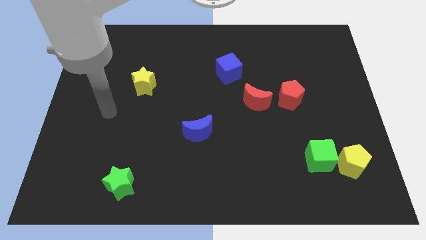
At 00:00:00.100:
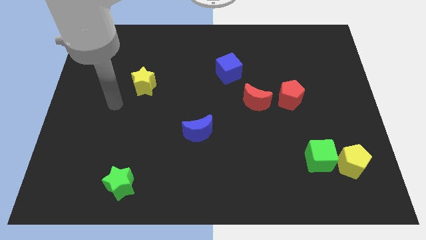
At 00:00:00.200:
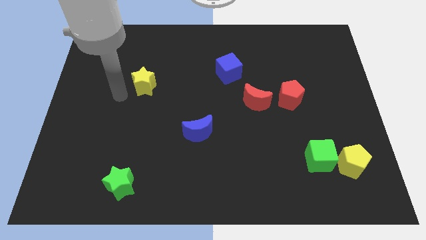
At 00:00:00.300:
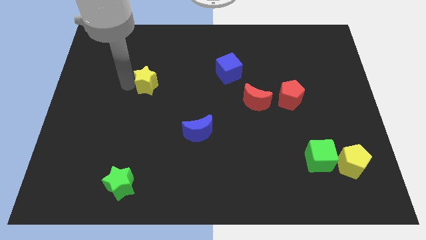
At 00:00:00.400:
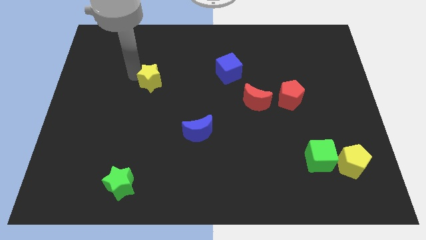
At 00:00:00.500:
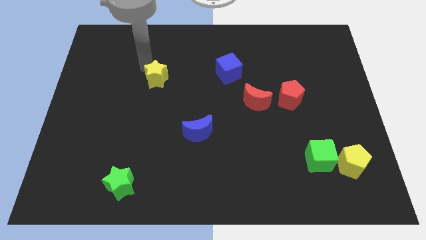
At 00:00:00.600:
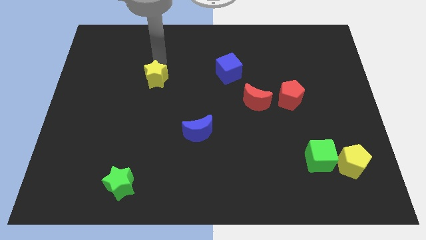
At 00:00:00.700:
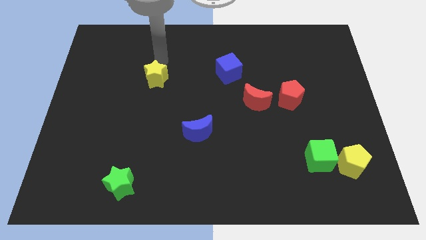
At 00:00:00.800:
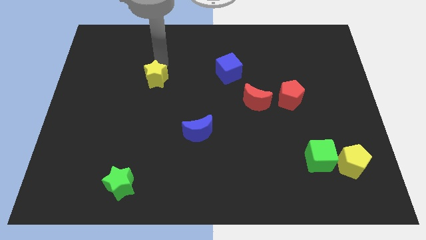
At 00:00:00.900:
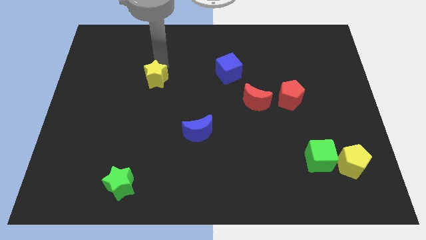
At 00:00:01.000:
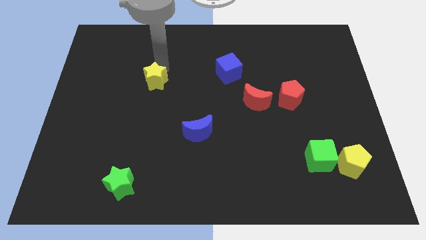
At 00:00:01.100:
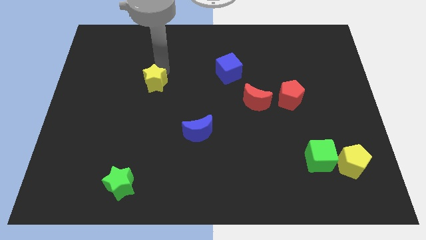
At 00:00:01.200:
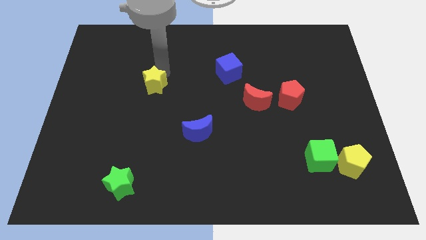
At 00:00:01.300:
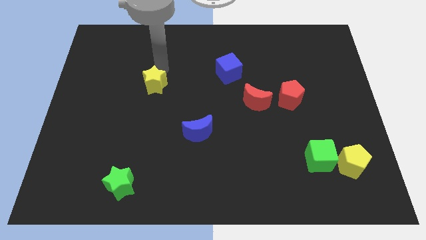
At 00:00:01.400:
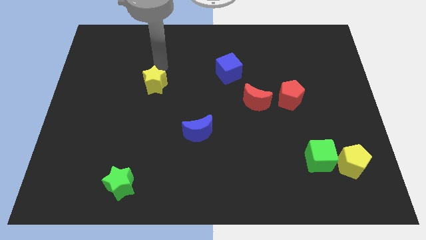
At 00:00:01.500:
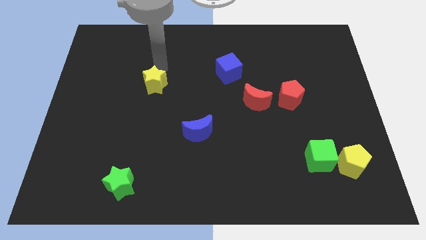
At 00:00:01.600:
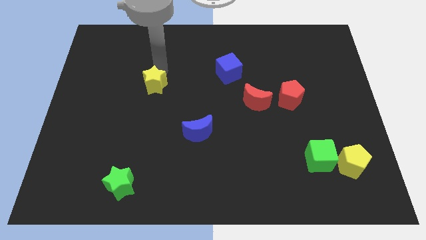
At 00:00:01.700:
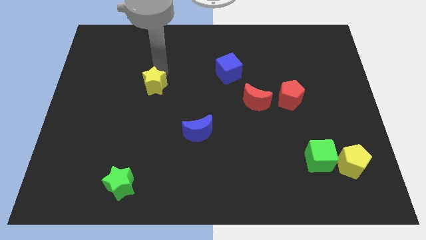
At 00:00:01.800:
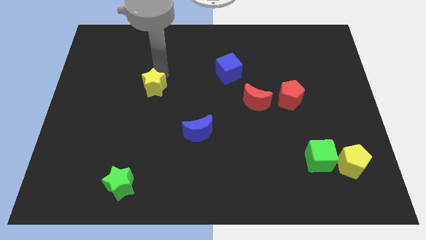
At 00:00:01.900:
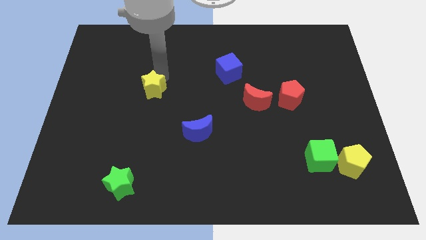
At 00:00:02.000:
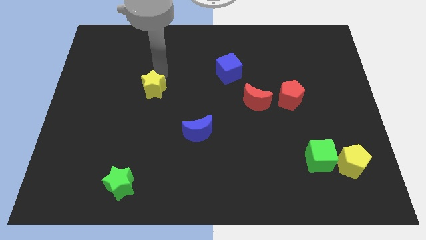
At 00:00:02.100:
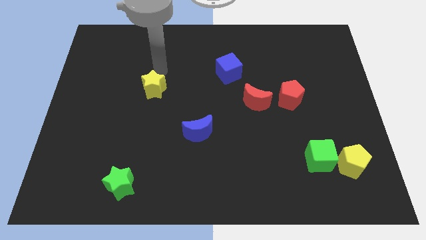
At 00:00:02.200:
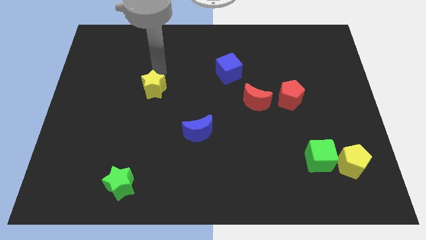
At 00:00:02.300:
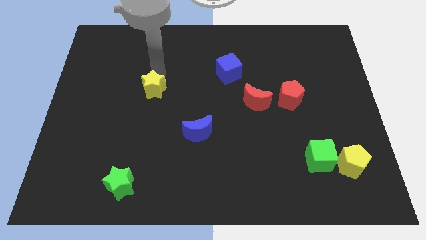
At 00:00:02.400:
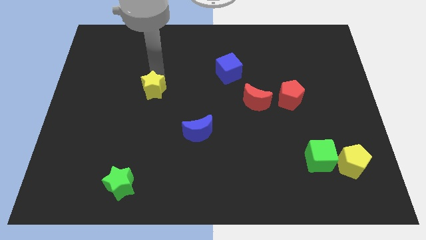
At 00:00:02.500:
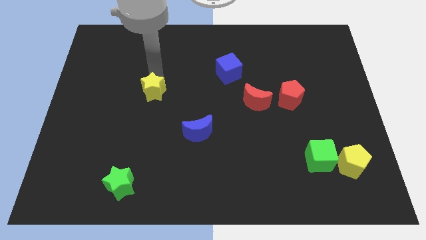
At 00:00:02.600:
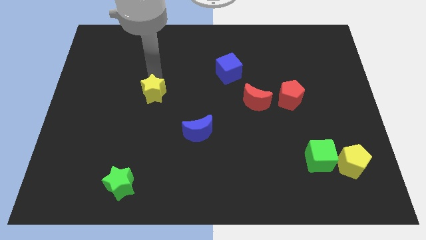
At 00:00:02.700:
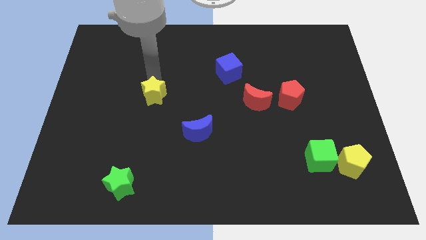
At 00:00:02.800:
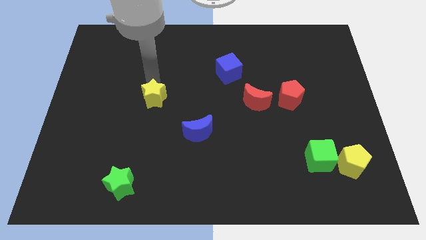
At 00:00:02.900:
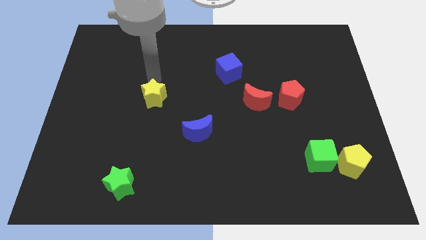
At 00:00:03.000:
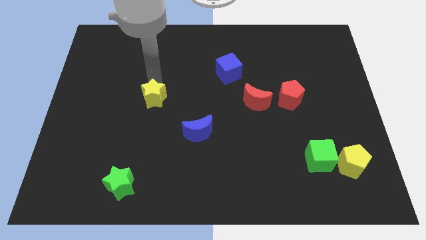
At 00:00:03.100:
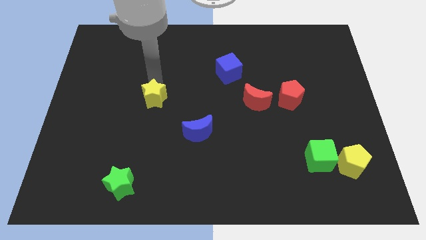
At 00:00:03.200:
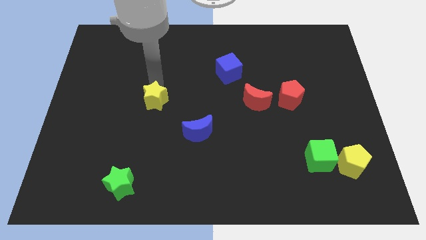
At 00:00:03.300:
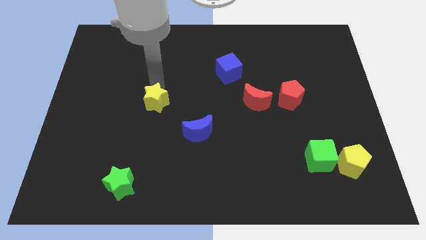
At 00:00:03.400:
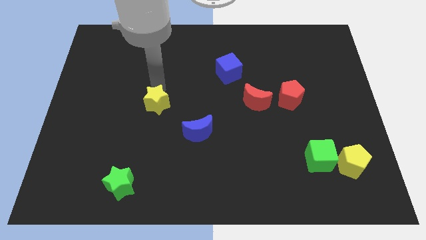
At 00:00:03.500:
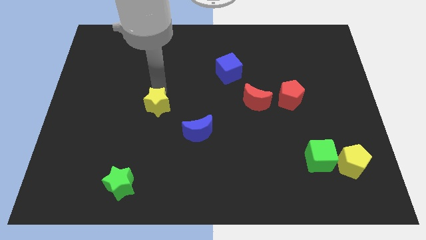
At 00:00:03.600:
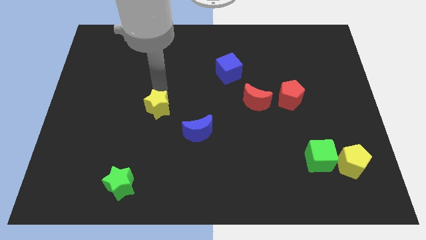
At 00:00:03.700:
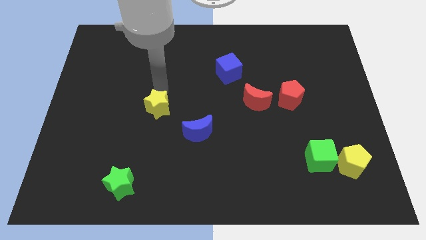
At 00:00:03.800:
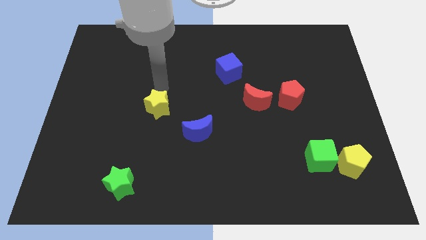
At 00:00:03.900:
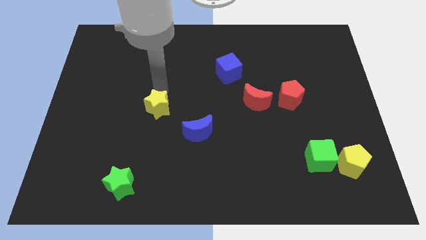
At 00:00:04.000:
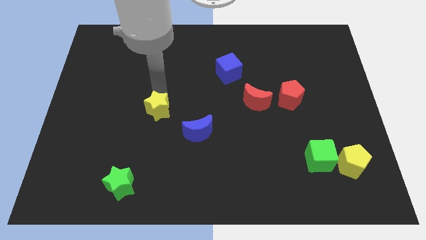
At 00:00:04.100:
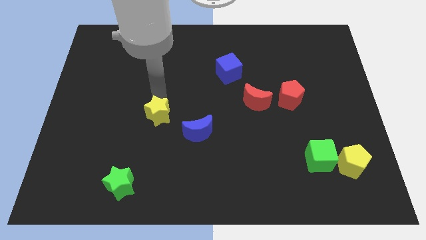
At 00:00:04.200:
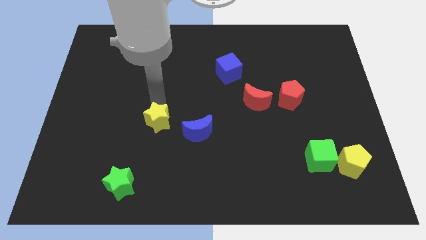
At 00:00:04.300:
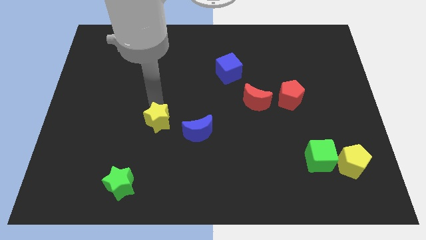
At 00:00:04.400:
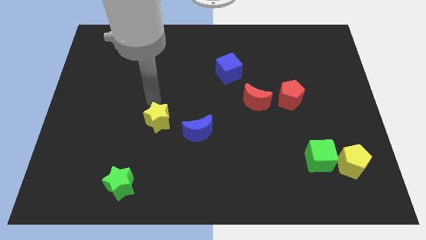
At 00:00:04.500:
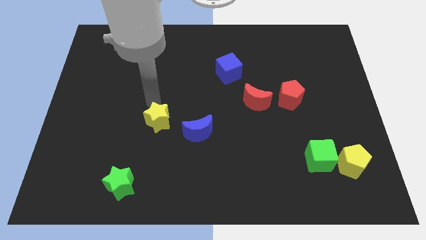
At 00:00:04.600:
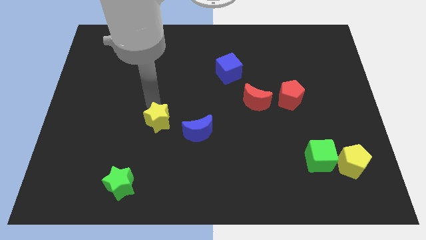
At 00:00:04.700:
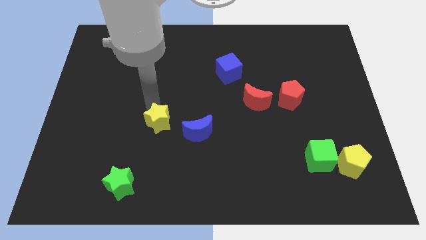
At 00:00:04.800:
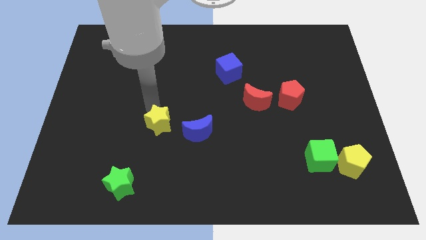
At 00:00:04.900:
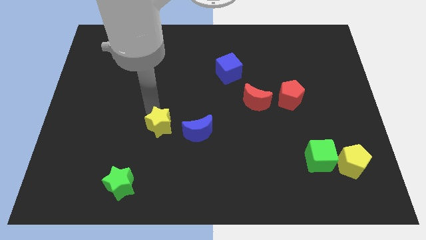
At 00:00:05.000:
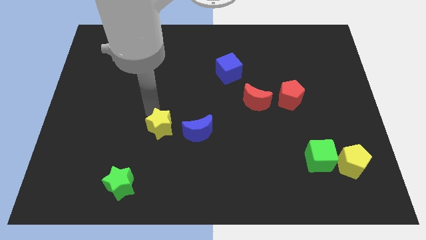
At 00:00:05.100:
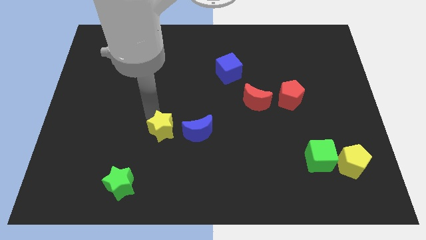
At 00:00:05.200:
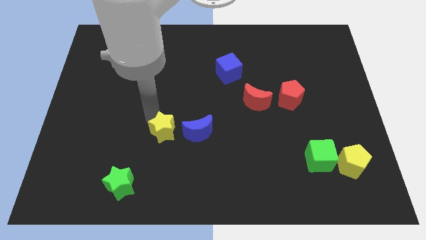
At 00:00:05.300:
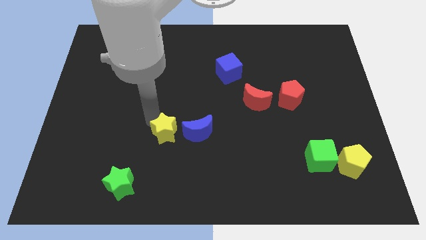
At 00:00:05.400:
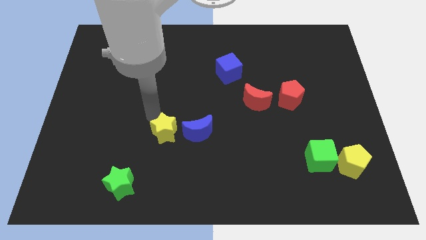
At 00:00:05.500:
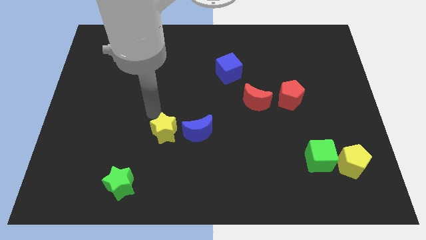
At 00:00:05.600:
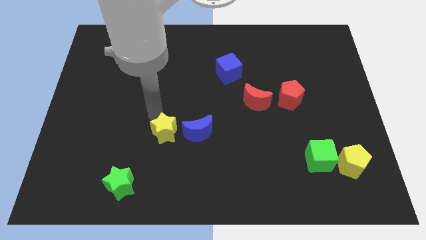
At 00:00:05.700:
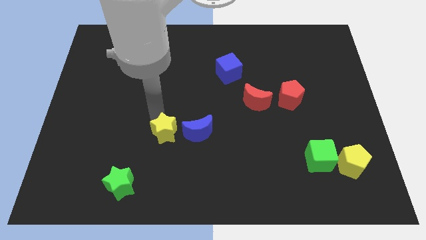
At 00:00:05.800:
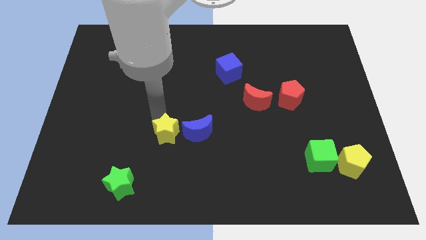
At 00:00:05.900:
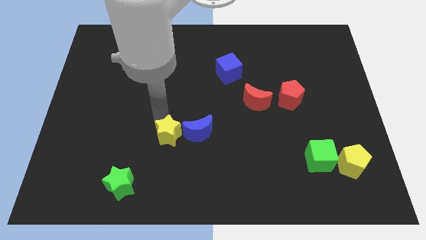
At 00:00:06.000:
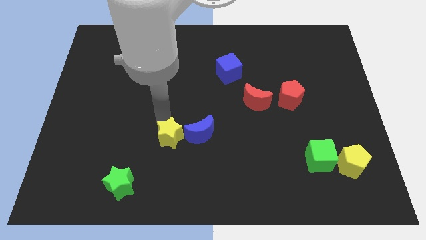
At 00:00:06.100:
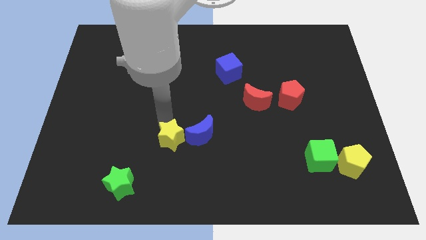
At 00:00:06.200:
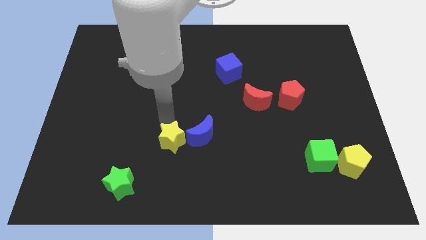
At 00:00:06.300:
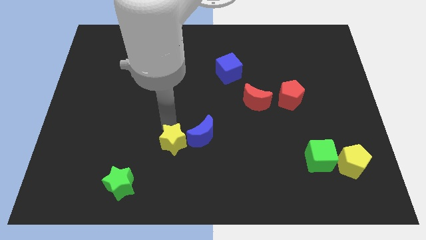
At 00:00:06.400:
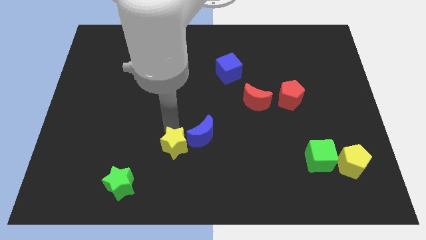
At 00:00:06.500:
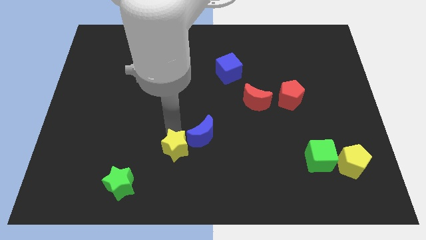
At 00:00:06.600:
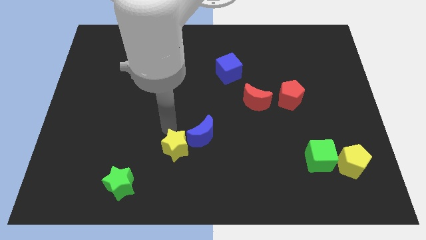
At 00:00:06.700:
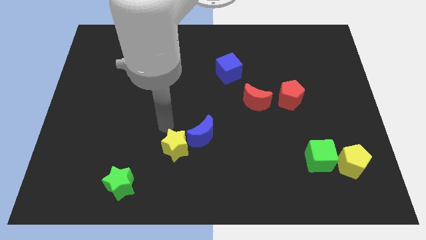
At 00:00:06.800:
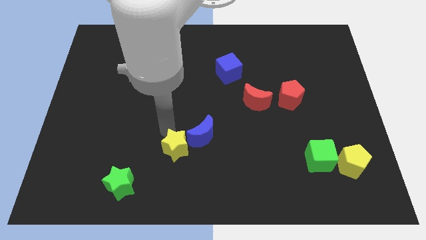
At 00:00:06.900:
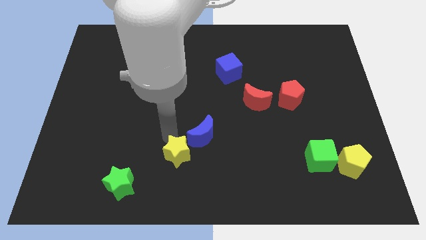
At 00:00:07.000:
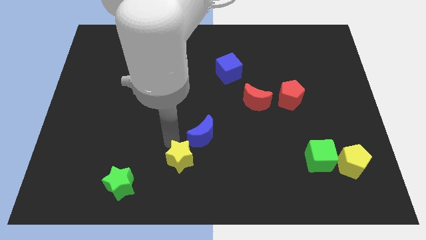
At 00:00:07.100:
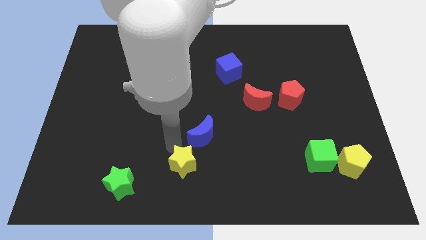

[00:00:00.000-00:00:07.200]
push the yellow star to the bottom
